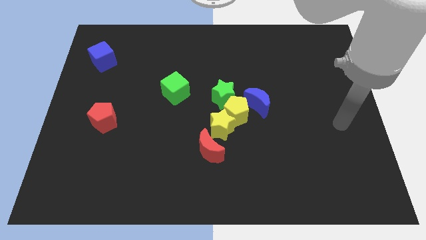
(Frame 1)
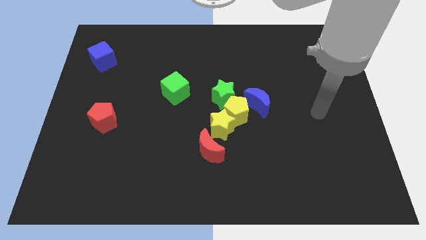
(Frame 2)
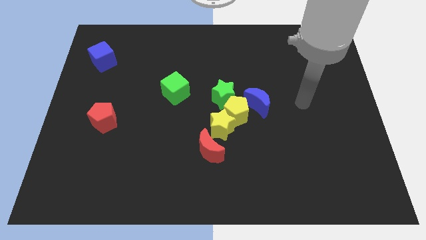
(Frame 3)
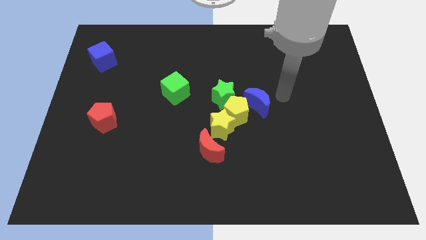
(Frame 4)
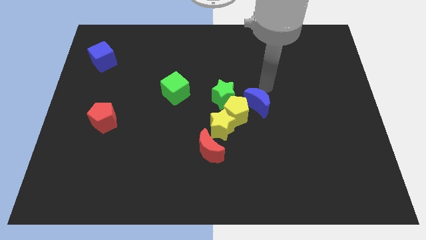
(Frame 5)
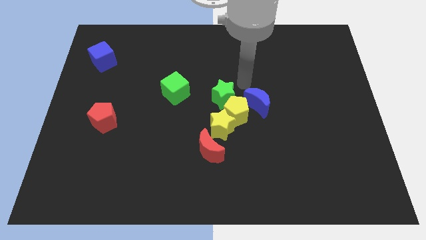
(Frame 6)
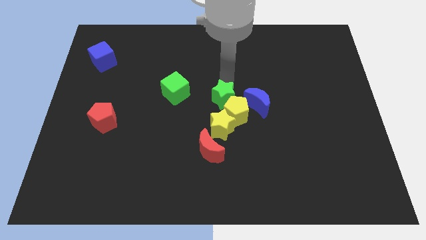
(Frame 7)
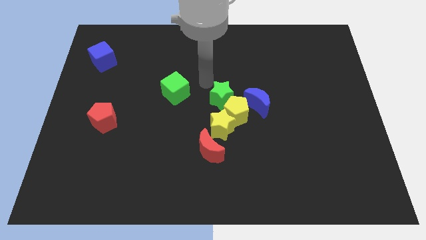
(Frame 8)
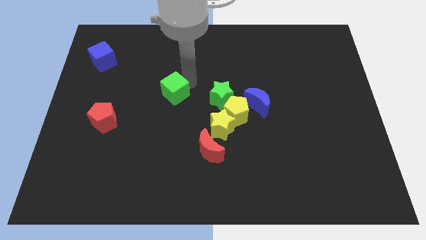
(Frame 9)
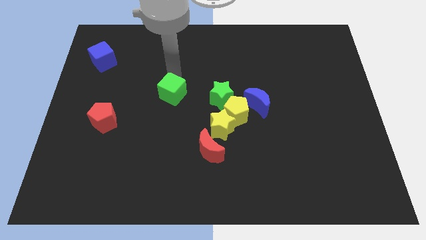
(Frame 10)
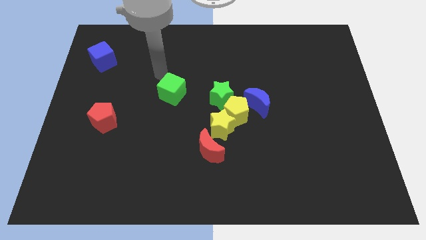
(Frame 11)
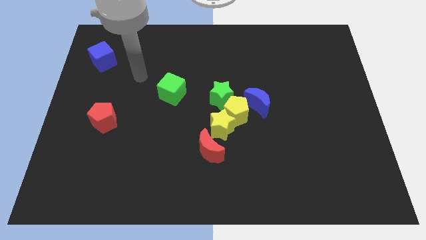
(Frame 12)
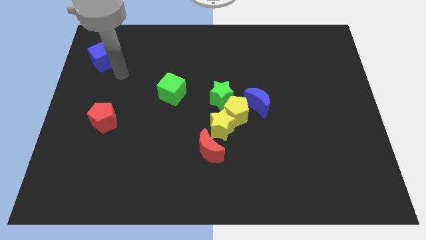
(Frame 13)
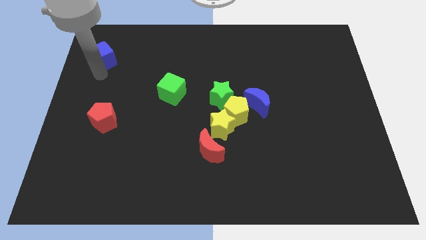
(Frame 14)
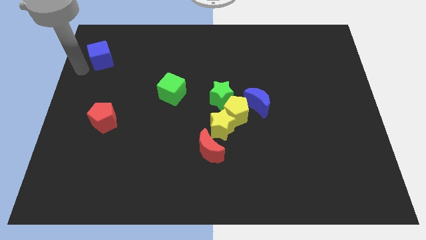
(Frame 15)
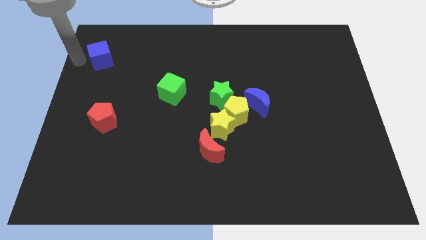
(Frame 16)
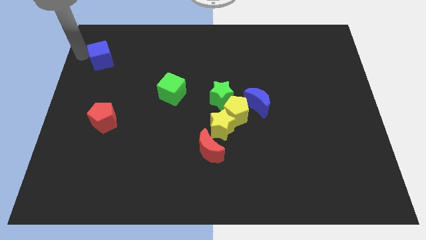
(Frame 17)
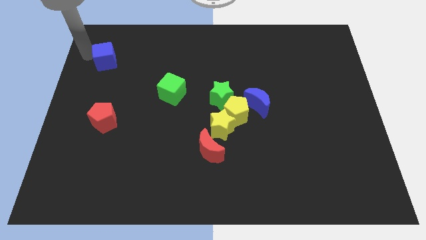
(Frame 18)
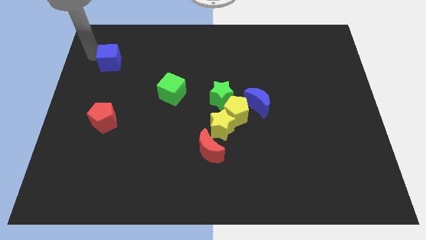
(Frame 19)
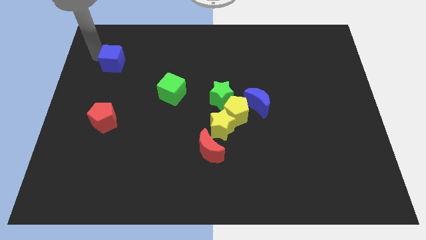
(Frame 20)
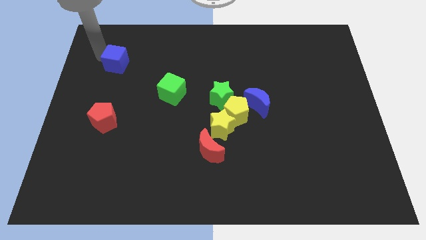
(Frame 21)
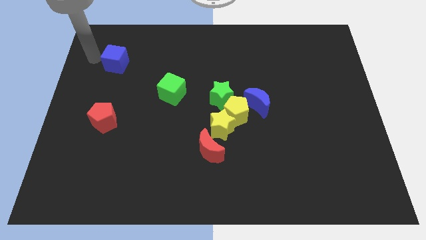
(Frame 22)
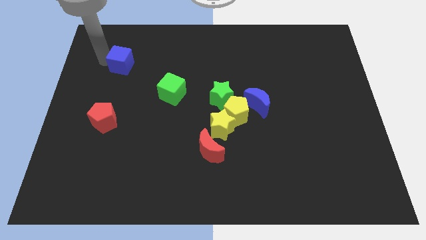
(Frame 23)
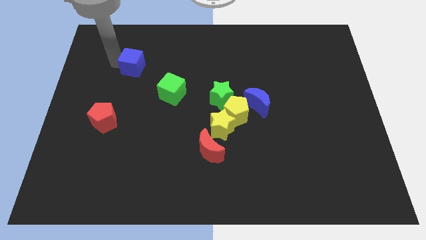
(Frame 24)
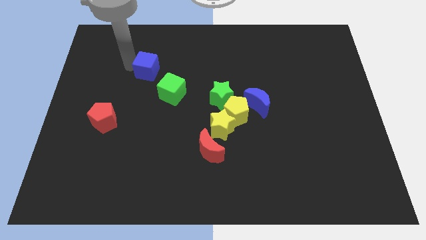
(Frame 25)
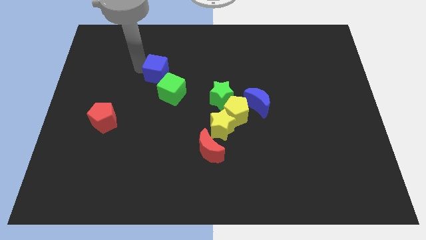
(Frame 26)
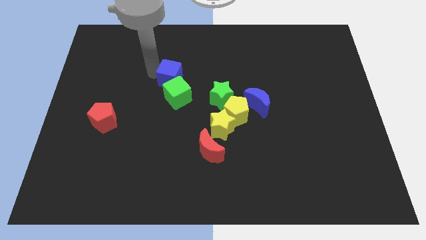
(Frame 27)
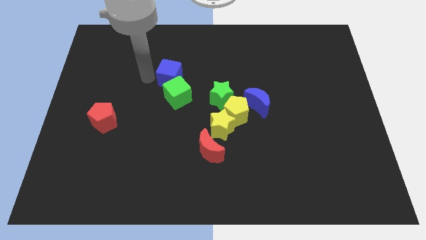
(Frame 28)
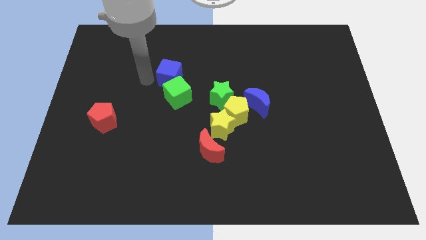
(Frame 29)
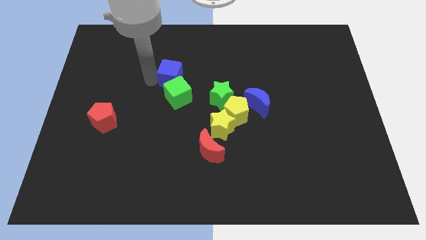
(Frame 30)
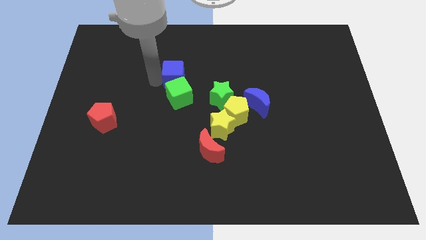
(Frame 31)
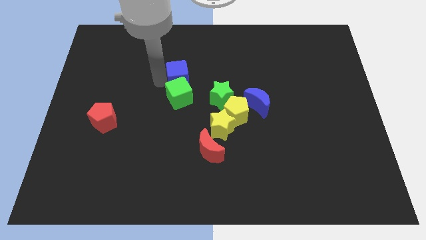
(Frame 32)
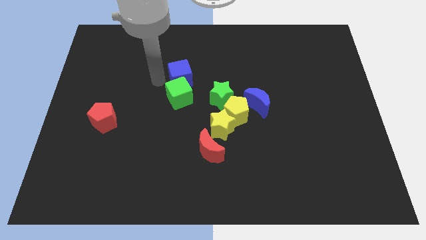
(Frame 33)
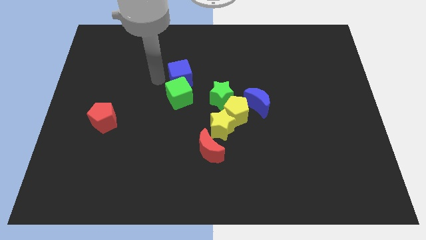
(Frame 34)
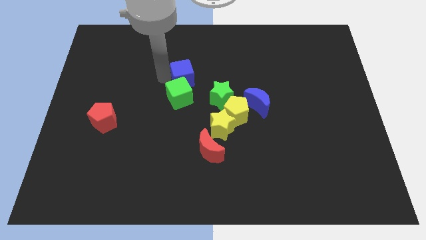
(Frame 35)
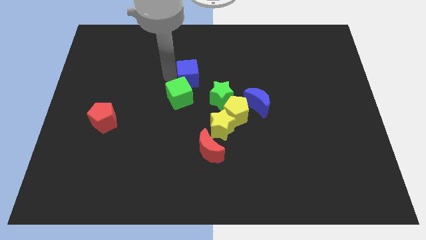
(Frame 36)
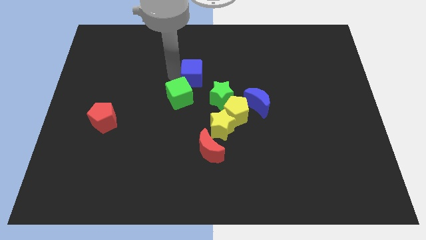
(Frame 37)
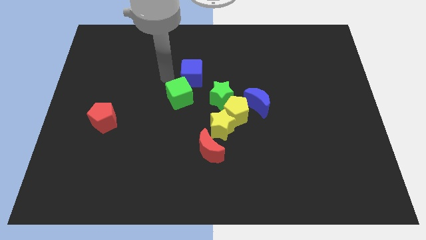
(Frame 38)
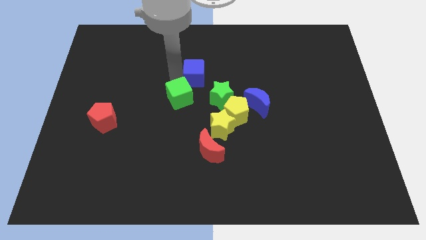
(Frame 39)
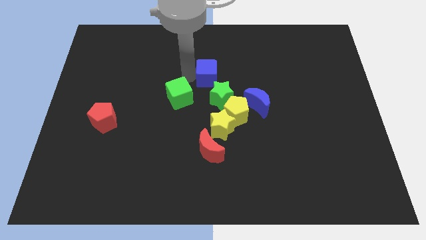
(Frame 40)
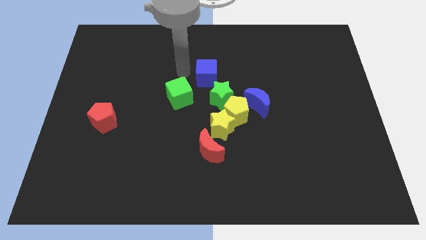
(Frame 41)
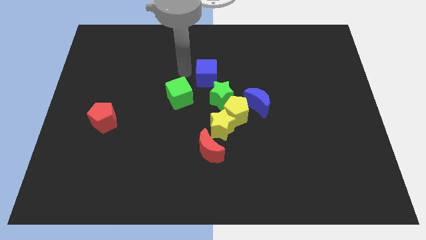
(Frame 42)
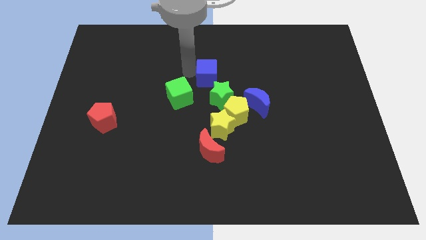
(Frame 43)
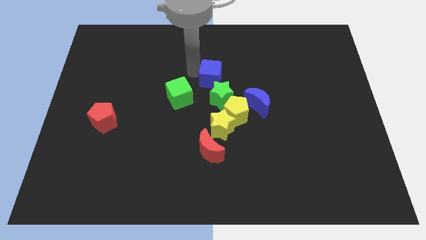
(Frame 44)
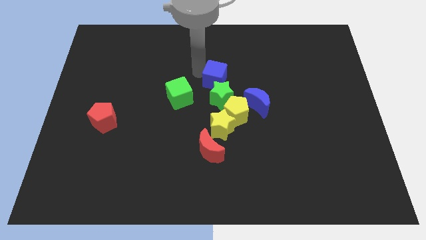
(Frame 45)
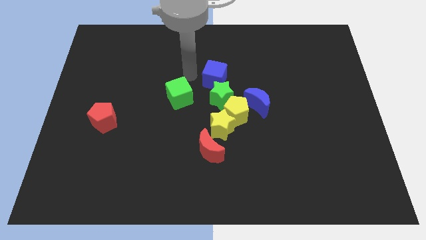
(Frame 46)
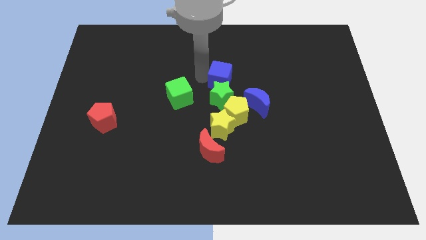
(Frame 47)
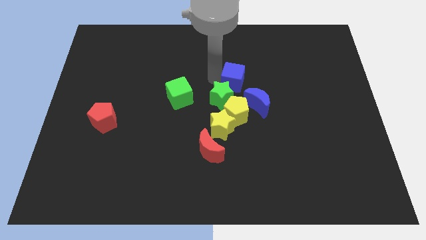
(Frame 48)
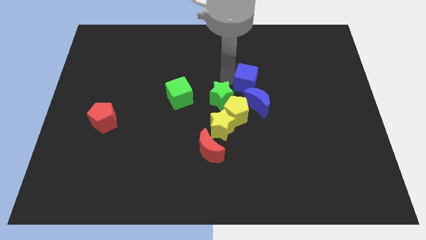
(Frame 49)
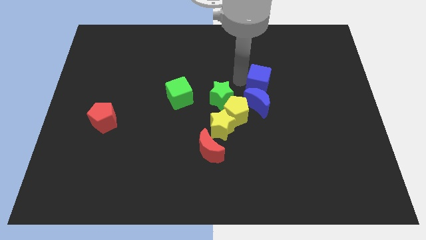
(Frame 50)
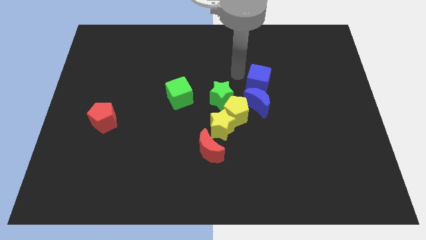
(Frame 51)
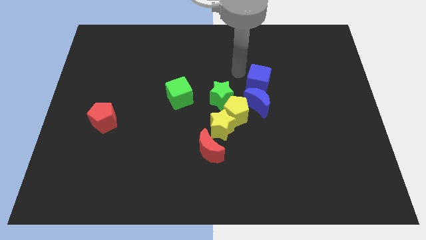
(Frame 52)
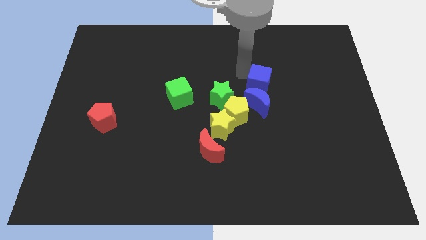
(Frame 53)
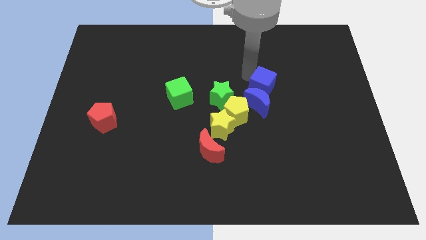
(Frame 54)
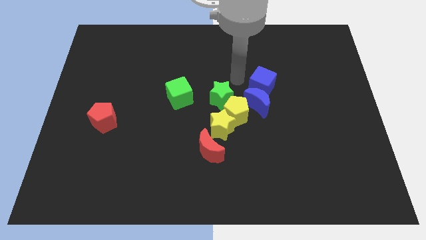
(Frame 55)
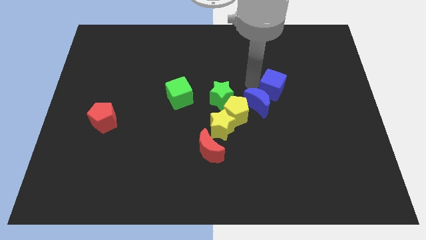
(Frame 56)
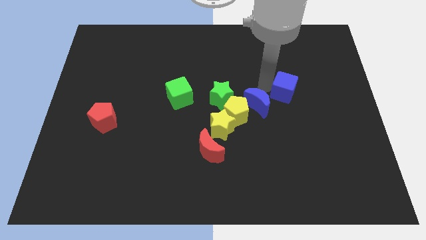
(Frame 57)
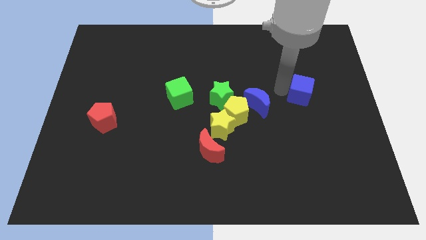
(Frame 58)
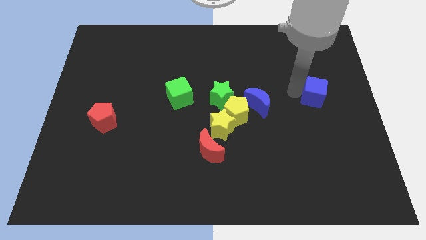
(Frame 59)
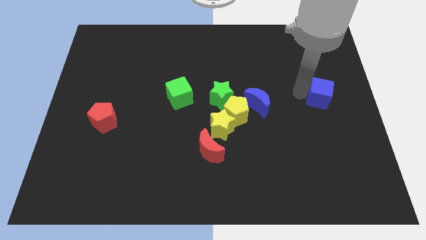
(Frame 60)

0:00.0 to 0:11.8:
push the blue cube to the right side of the board
